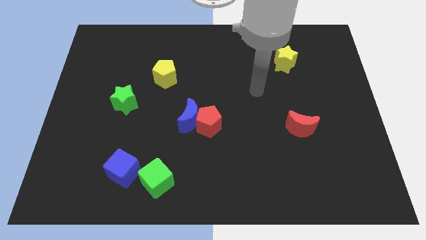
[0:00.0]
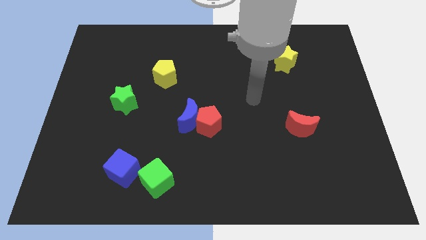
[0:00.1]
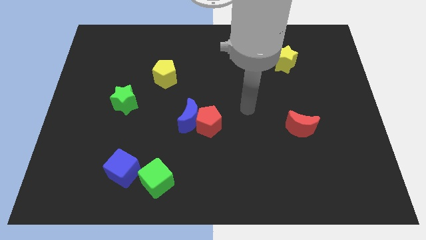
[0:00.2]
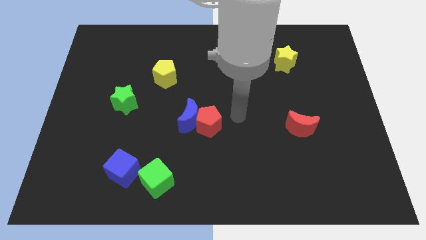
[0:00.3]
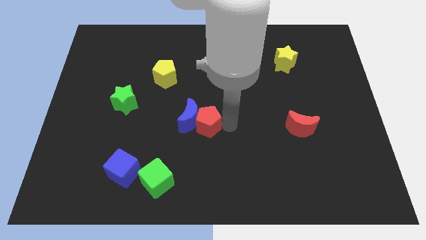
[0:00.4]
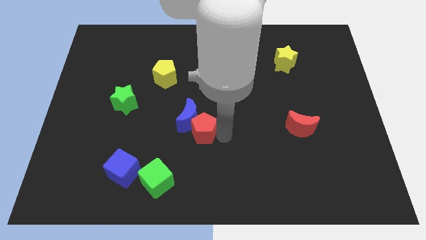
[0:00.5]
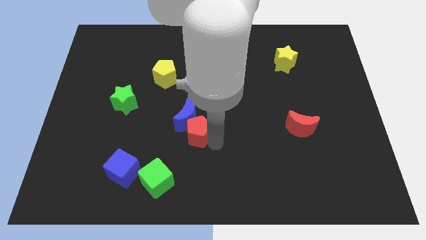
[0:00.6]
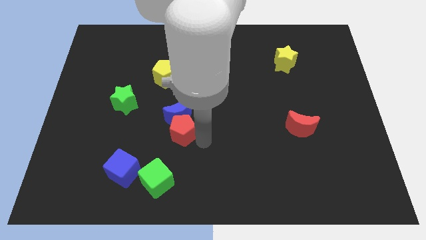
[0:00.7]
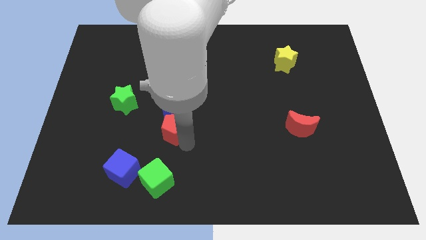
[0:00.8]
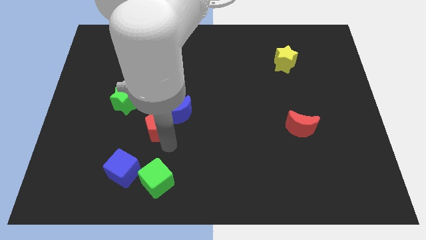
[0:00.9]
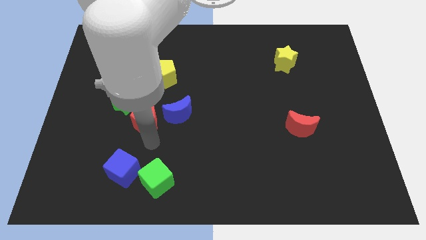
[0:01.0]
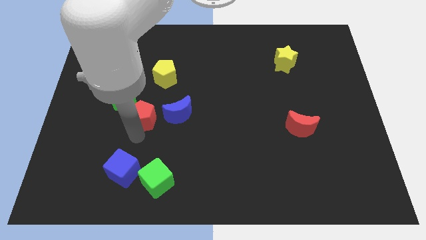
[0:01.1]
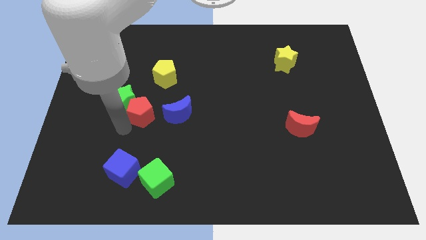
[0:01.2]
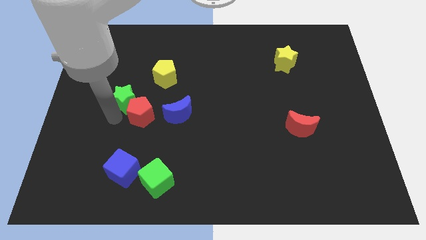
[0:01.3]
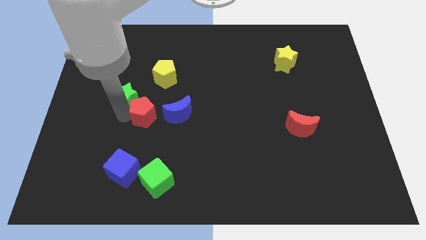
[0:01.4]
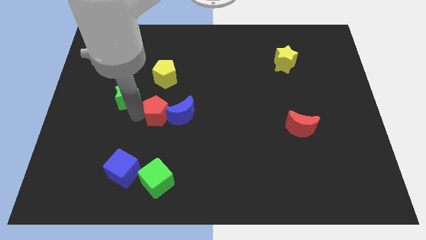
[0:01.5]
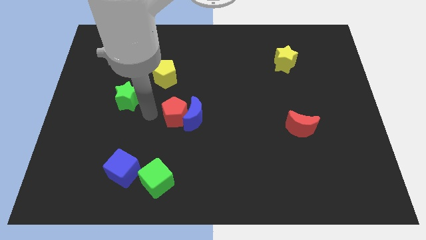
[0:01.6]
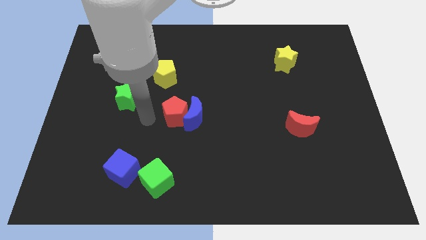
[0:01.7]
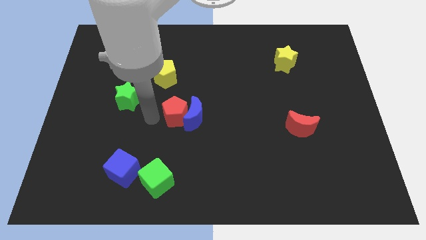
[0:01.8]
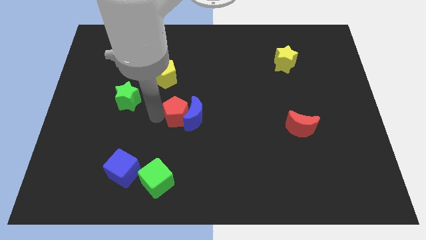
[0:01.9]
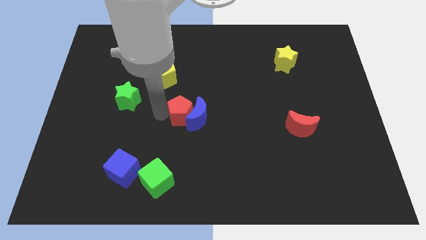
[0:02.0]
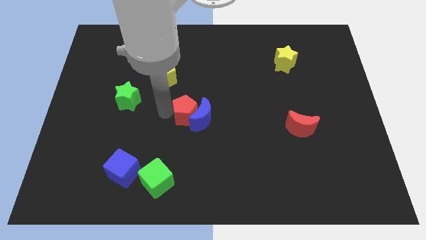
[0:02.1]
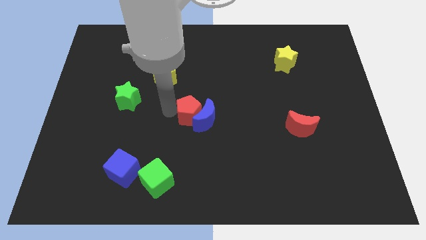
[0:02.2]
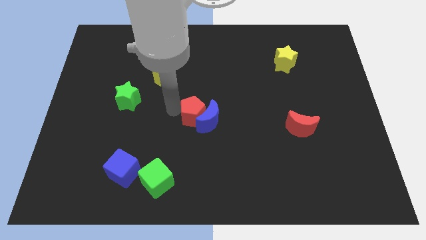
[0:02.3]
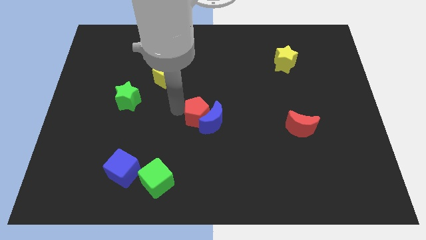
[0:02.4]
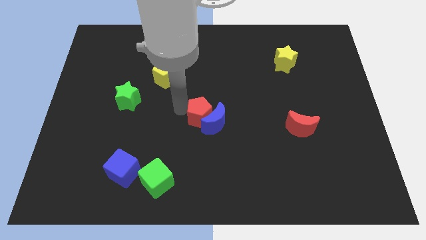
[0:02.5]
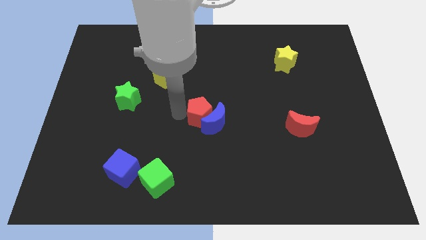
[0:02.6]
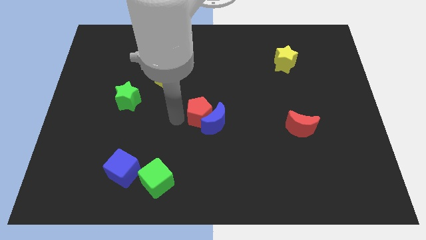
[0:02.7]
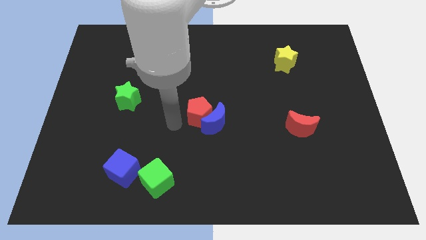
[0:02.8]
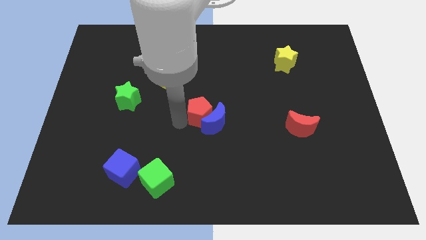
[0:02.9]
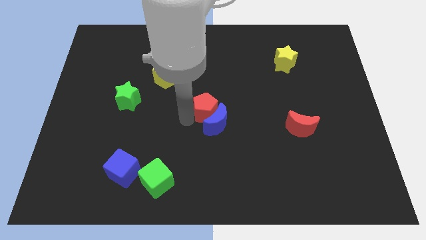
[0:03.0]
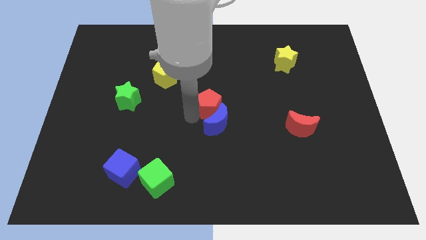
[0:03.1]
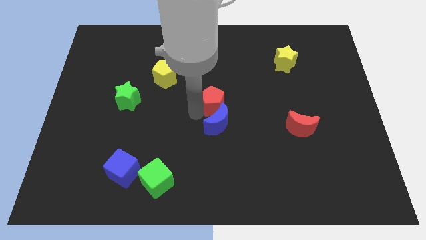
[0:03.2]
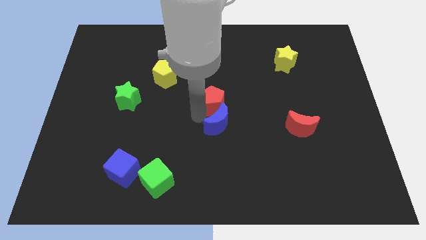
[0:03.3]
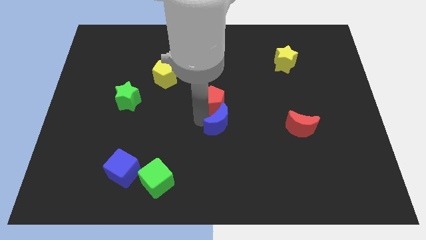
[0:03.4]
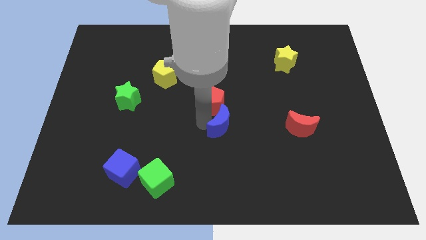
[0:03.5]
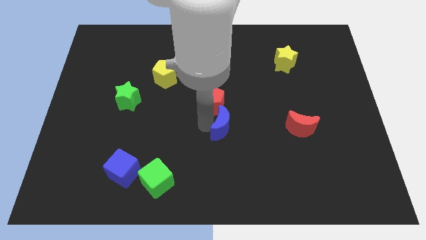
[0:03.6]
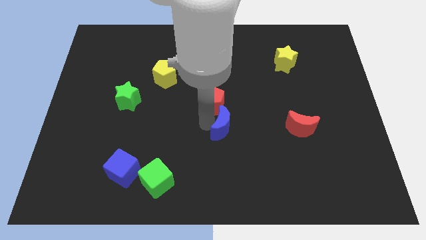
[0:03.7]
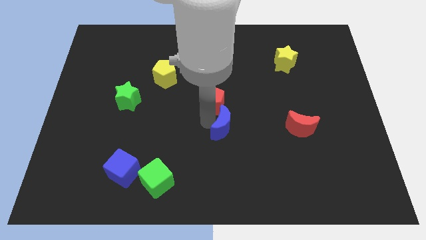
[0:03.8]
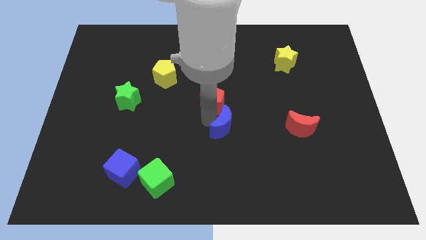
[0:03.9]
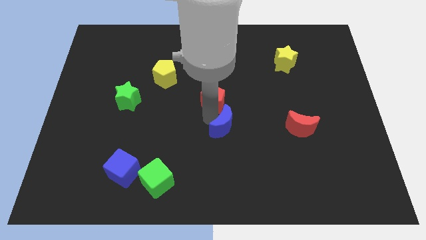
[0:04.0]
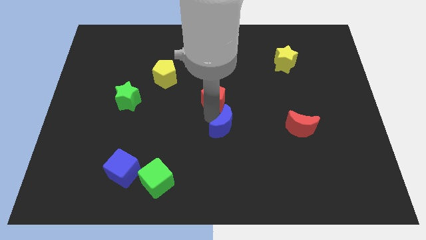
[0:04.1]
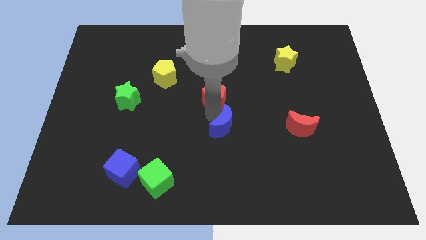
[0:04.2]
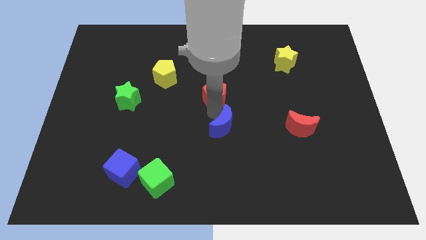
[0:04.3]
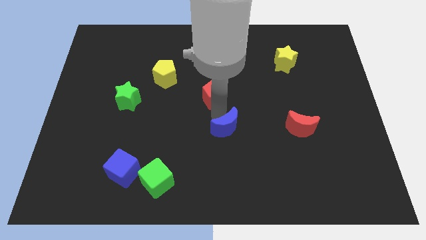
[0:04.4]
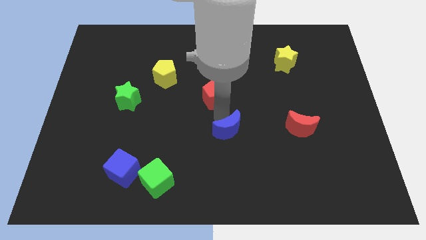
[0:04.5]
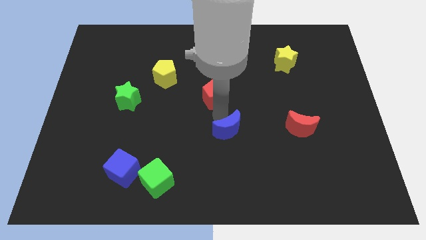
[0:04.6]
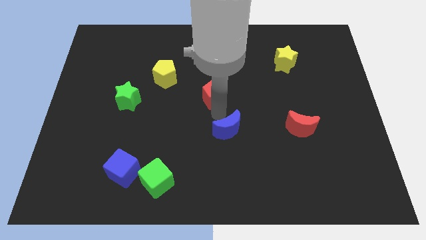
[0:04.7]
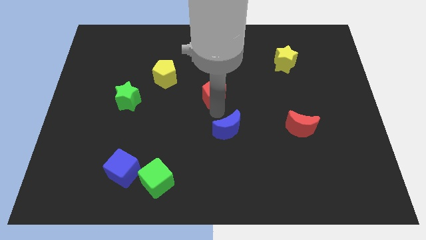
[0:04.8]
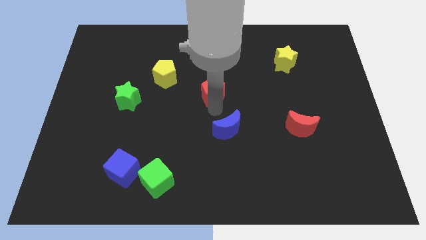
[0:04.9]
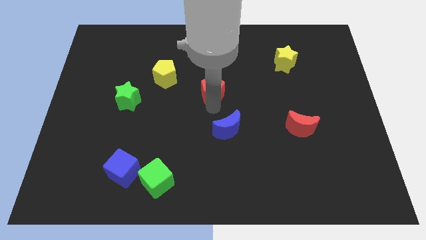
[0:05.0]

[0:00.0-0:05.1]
move the red pentagon just right of the yellow pentagon

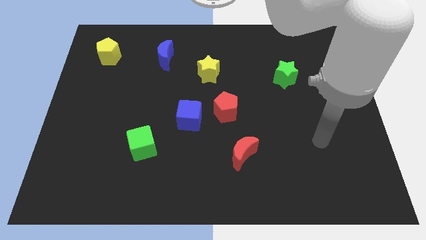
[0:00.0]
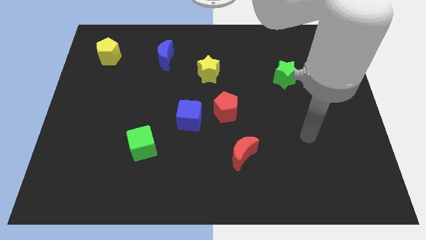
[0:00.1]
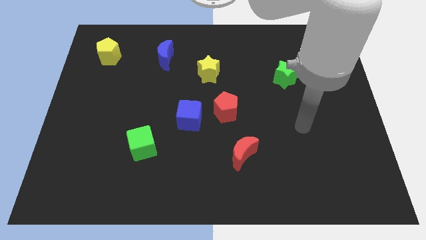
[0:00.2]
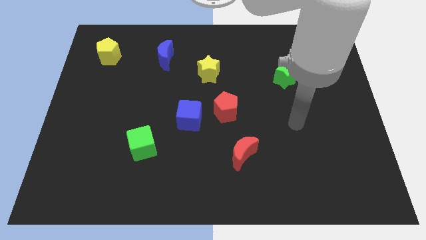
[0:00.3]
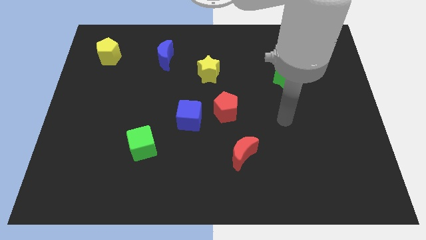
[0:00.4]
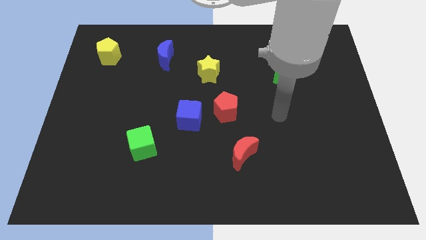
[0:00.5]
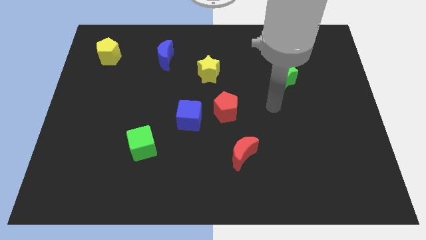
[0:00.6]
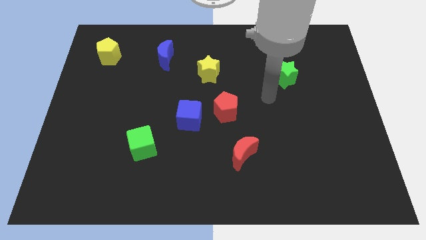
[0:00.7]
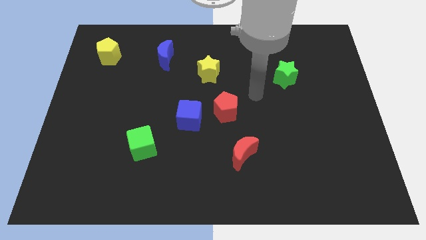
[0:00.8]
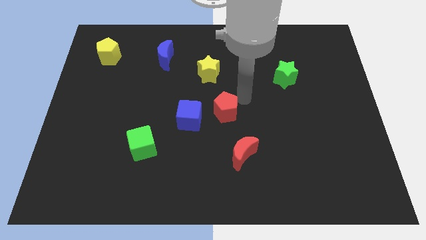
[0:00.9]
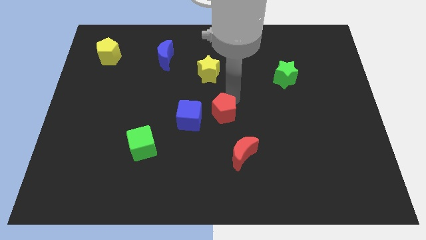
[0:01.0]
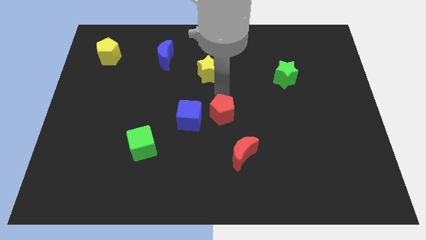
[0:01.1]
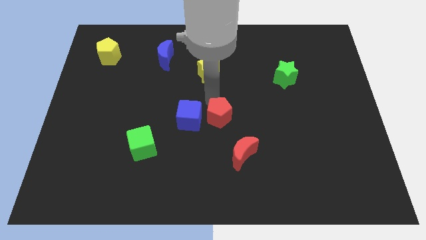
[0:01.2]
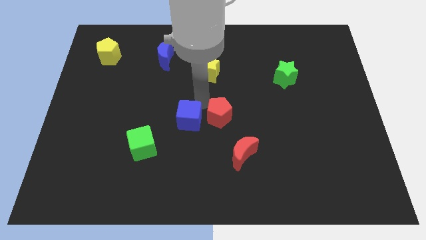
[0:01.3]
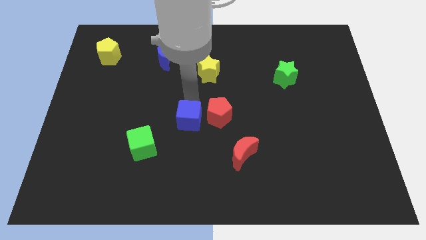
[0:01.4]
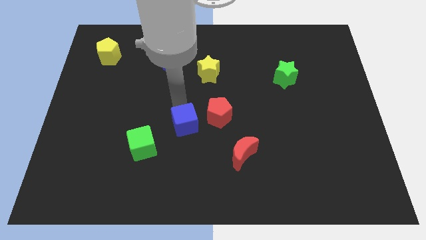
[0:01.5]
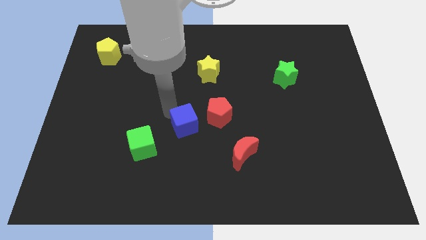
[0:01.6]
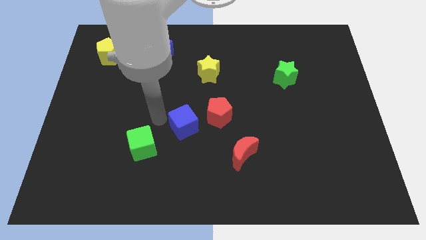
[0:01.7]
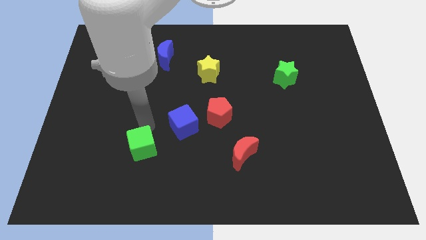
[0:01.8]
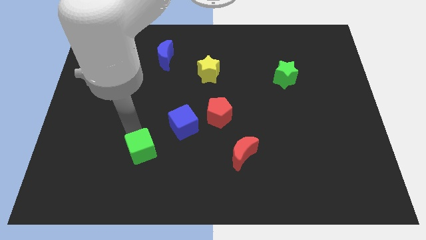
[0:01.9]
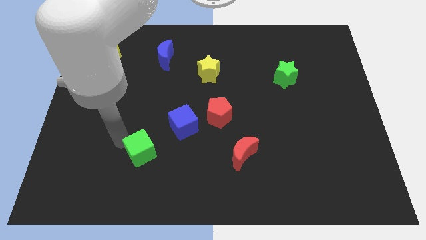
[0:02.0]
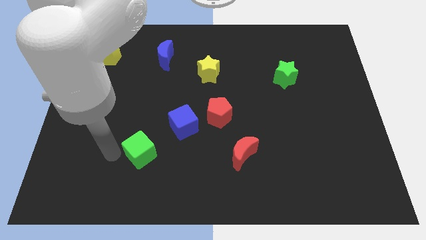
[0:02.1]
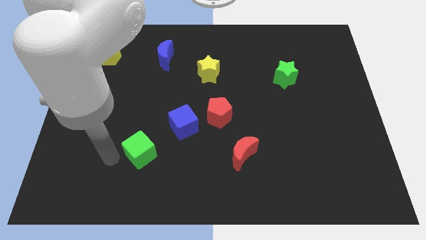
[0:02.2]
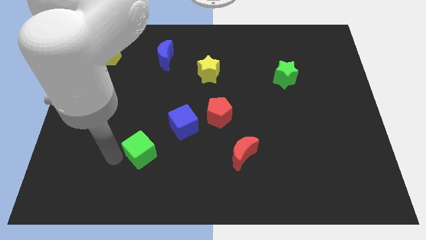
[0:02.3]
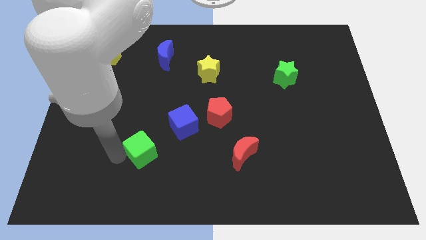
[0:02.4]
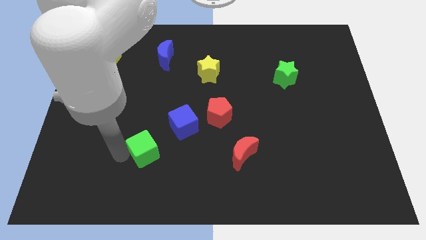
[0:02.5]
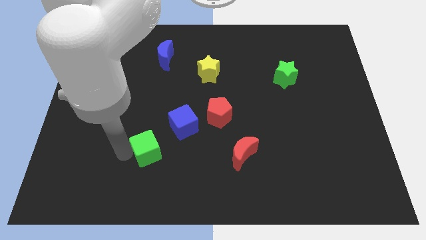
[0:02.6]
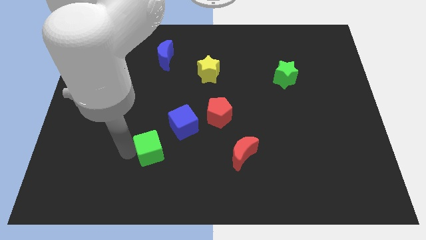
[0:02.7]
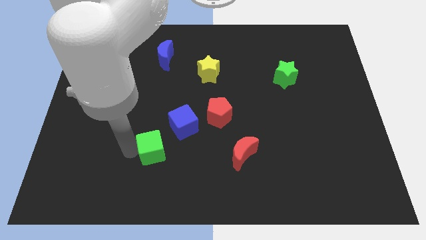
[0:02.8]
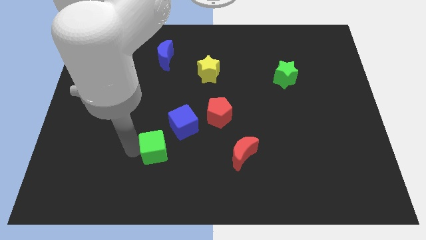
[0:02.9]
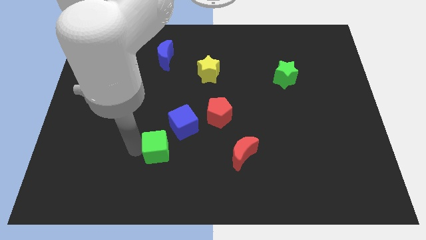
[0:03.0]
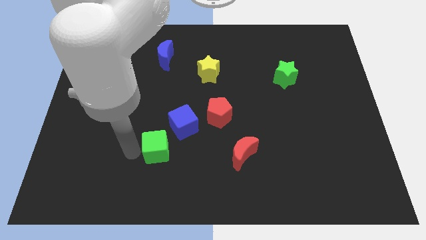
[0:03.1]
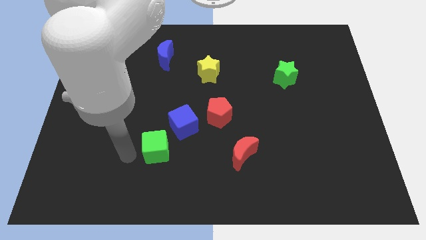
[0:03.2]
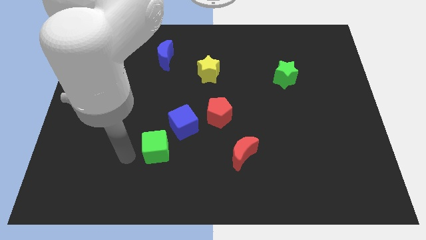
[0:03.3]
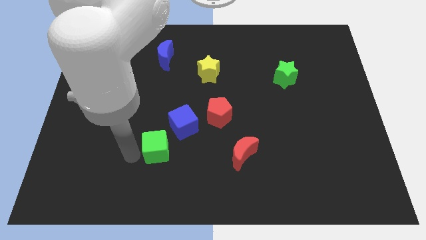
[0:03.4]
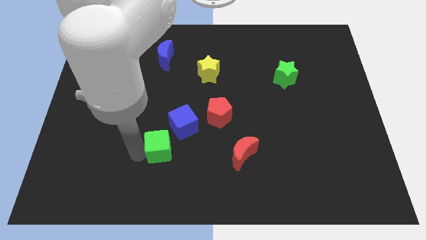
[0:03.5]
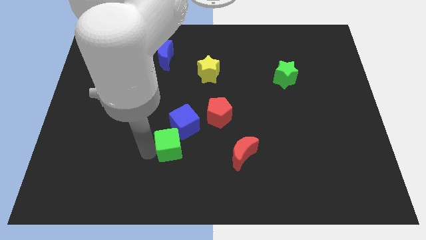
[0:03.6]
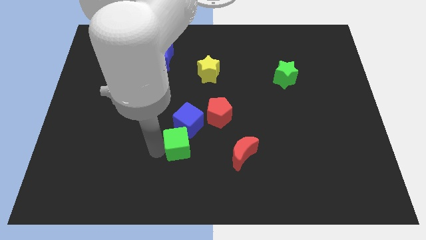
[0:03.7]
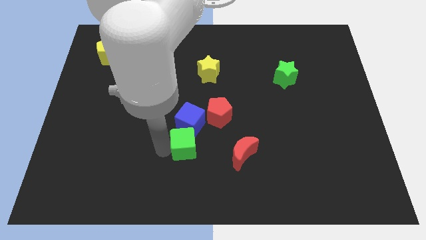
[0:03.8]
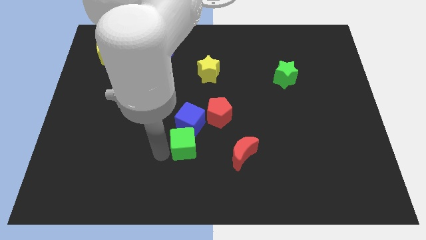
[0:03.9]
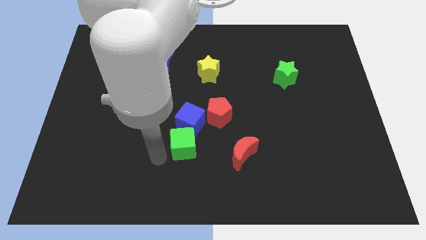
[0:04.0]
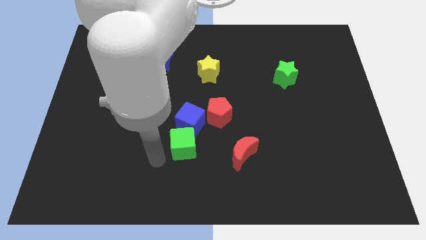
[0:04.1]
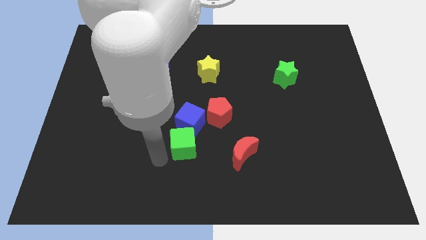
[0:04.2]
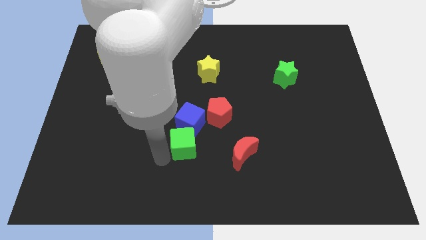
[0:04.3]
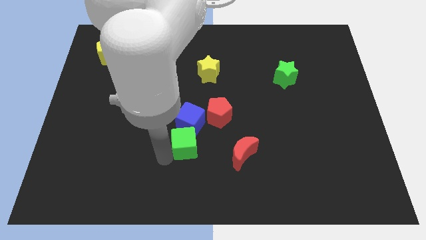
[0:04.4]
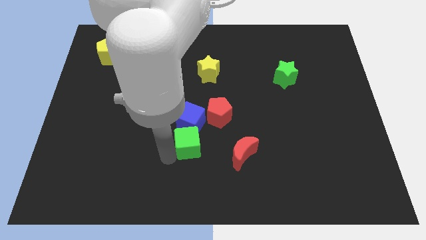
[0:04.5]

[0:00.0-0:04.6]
push the green cube diagonally down and to the right of the blue cube
